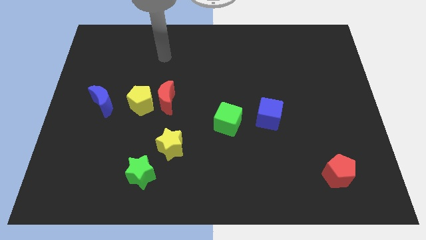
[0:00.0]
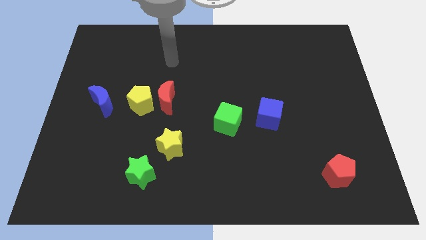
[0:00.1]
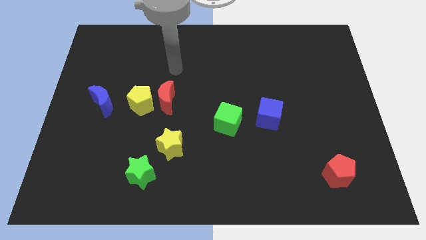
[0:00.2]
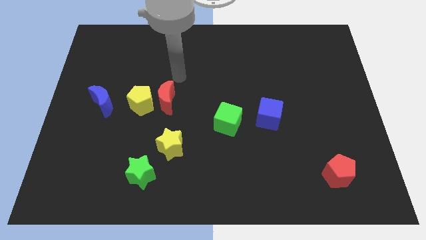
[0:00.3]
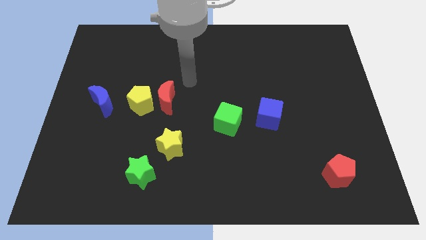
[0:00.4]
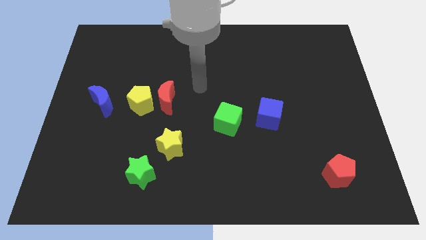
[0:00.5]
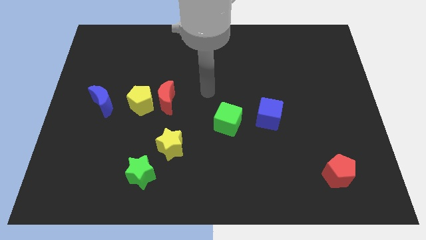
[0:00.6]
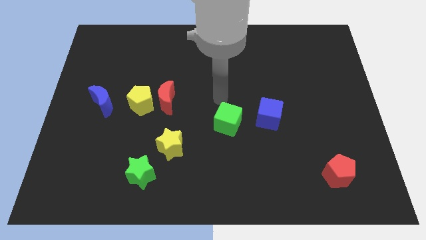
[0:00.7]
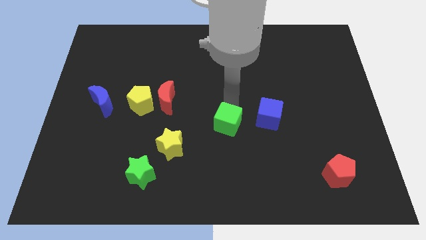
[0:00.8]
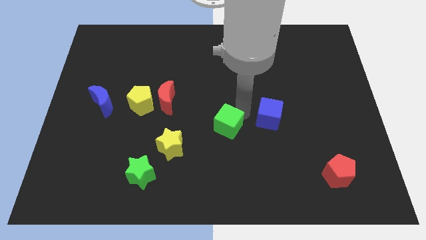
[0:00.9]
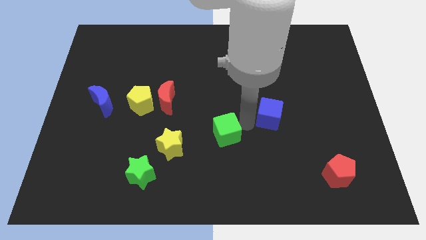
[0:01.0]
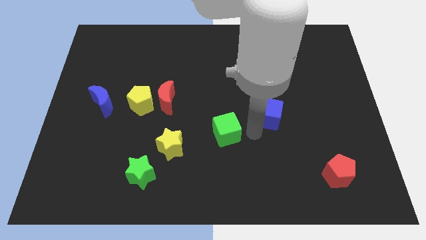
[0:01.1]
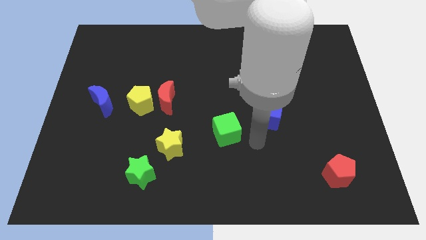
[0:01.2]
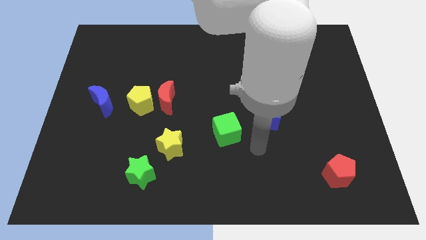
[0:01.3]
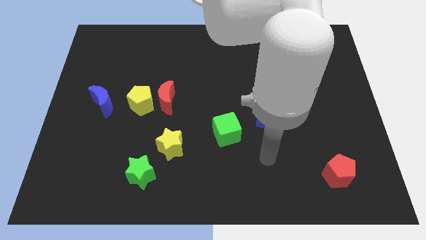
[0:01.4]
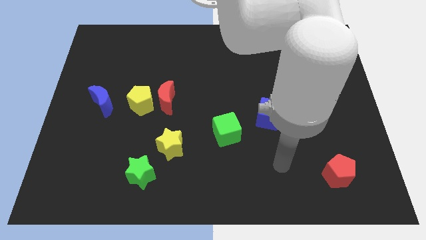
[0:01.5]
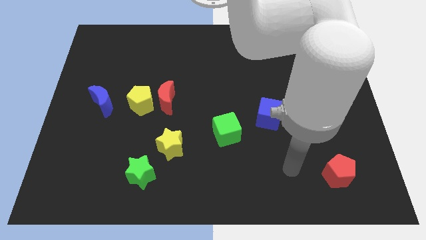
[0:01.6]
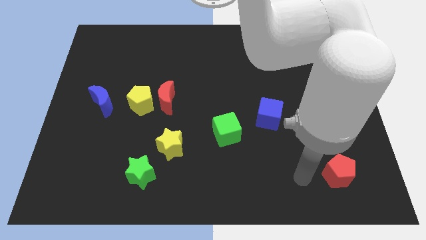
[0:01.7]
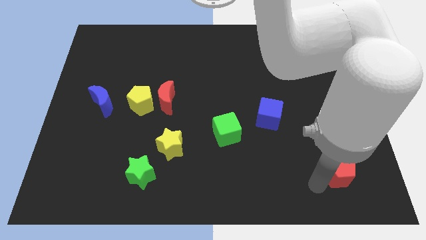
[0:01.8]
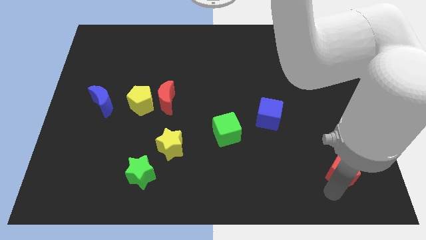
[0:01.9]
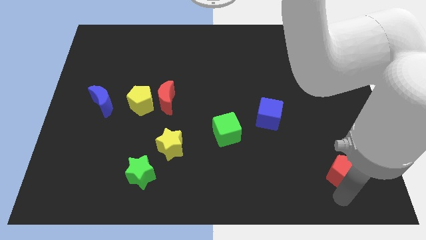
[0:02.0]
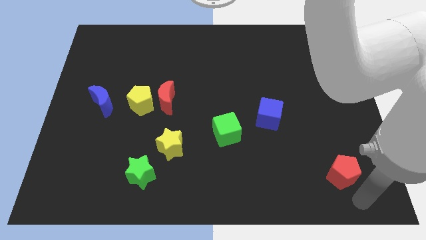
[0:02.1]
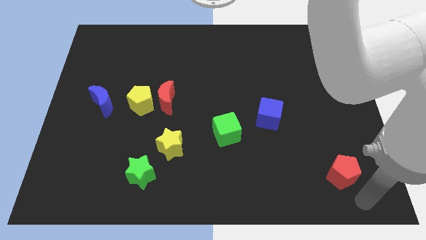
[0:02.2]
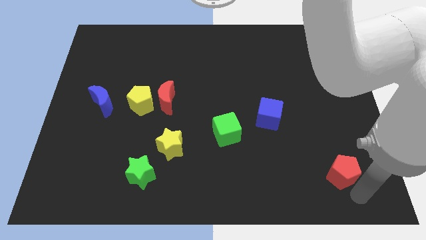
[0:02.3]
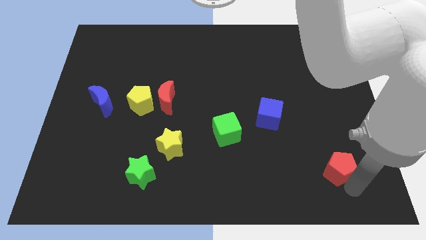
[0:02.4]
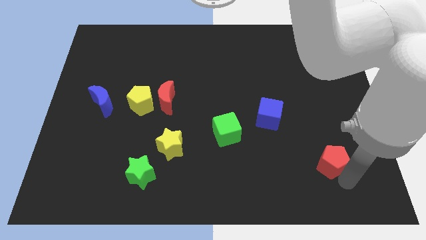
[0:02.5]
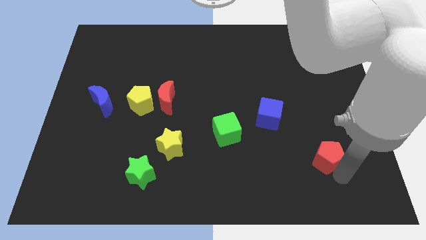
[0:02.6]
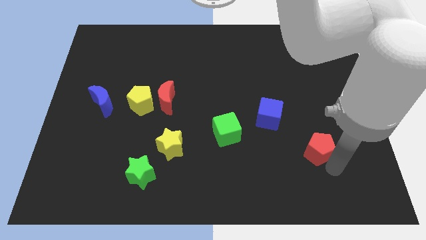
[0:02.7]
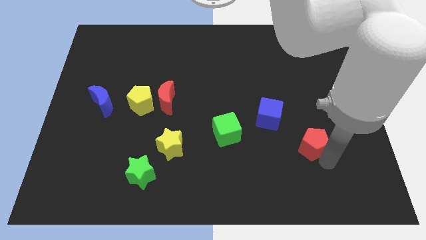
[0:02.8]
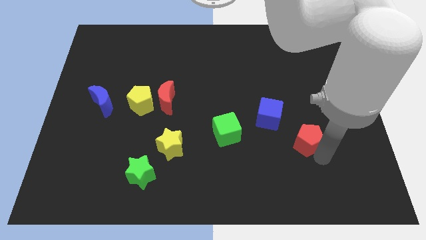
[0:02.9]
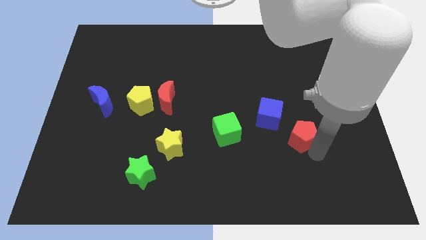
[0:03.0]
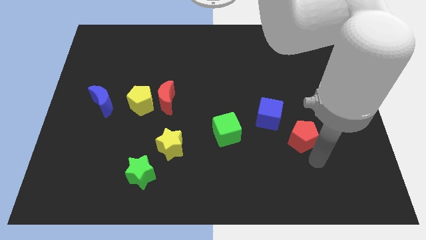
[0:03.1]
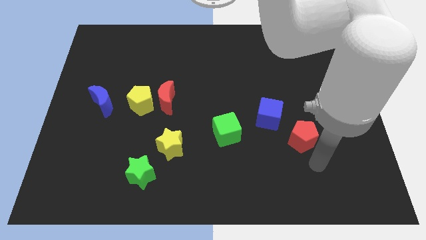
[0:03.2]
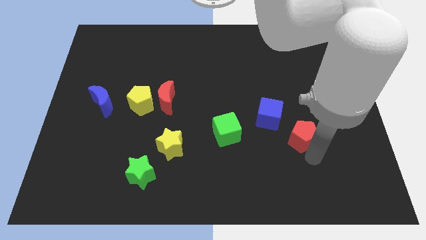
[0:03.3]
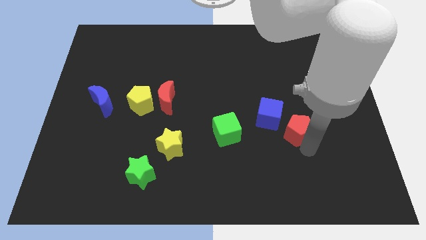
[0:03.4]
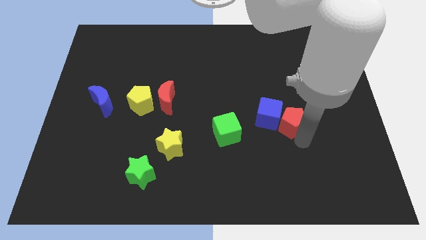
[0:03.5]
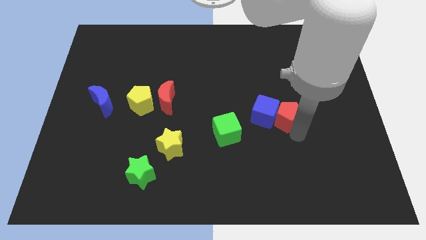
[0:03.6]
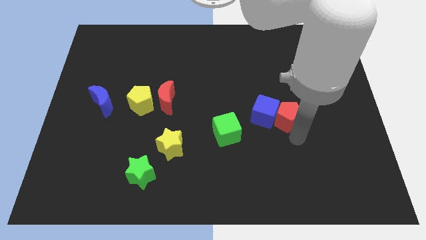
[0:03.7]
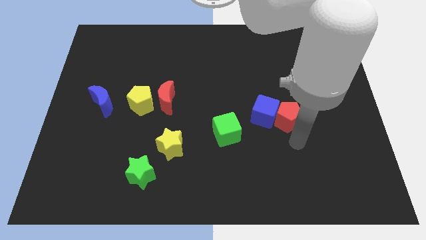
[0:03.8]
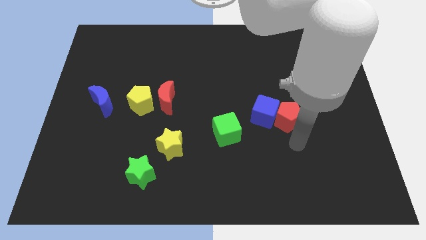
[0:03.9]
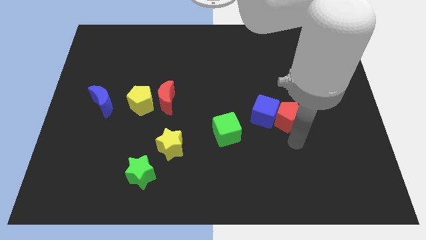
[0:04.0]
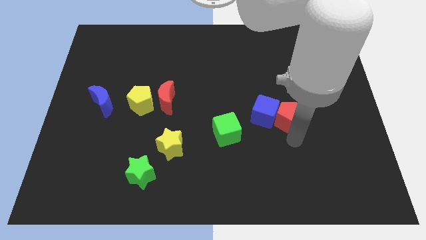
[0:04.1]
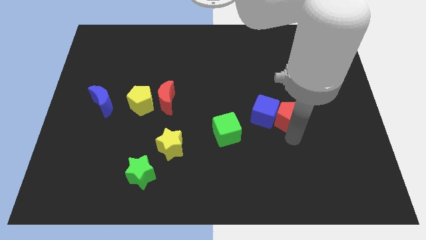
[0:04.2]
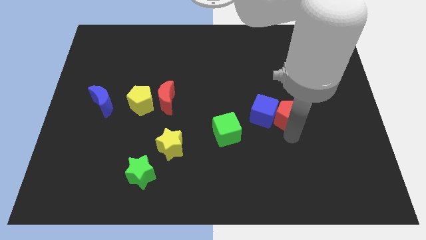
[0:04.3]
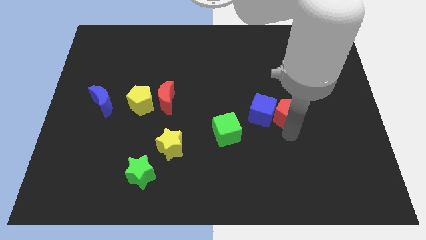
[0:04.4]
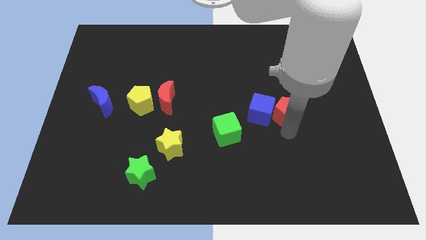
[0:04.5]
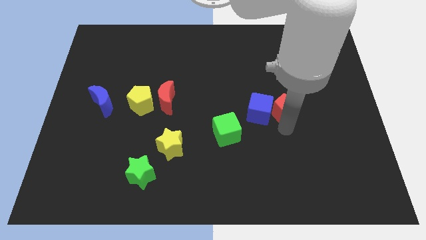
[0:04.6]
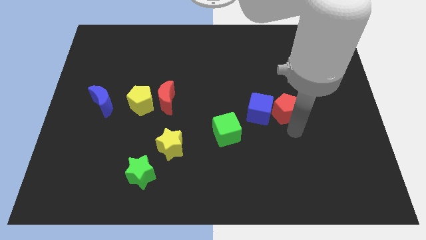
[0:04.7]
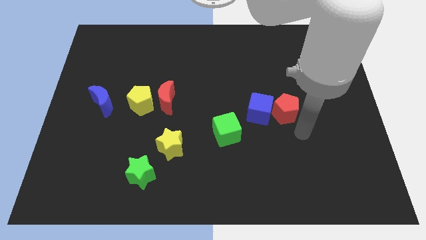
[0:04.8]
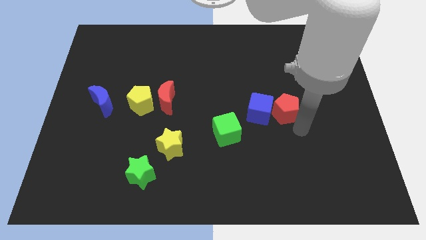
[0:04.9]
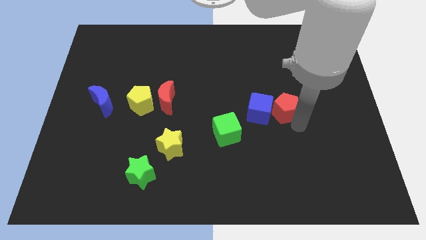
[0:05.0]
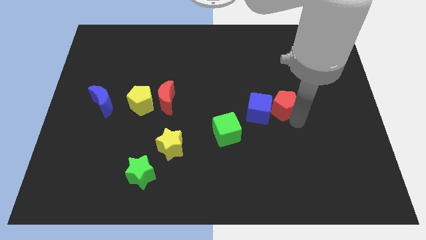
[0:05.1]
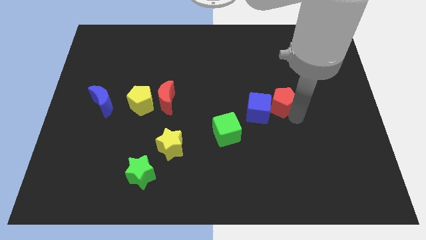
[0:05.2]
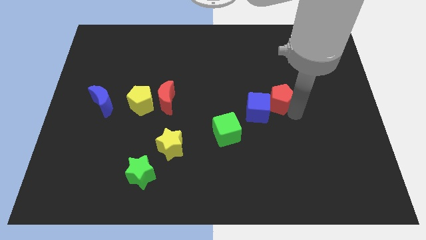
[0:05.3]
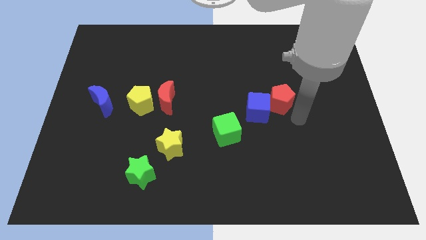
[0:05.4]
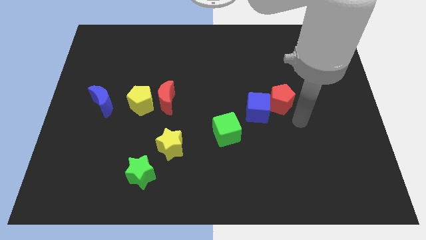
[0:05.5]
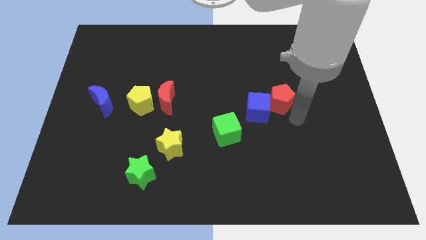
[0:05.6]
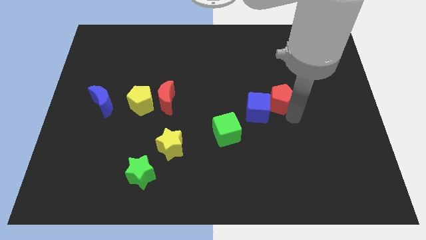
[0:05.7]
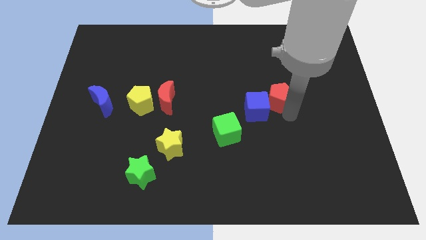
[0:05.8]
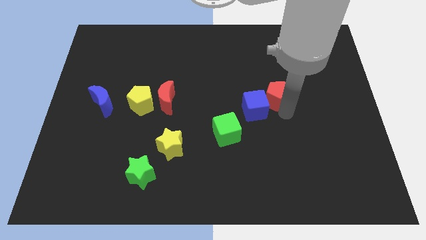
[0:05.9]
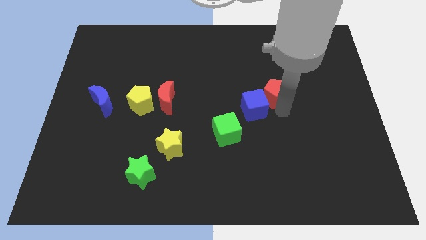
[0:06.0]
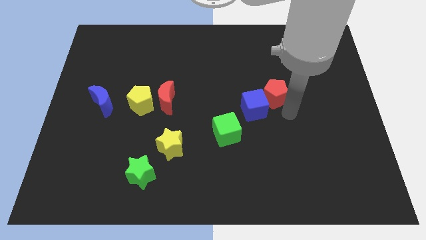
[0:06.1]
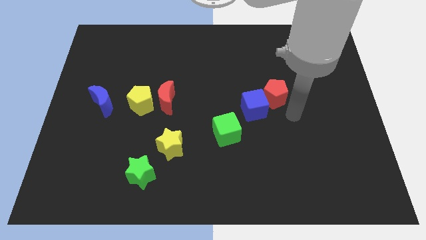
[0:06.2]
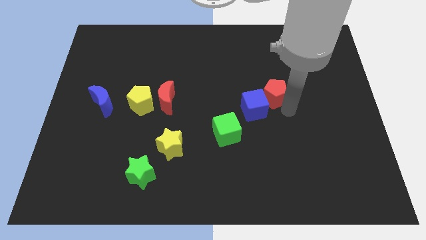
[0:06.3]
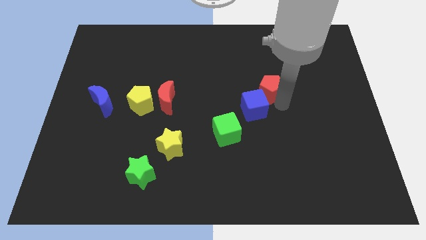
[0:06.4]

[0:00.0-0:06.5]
push the red pentagon above the blue cube

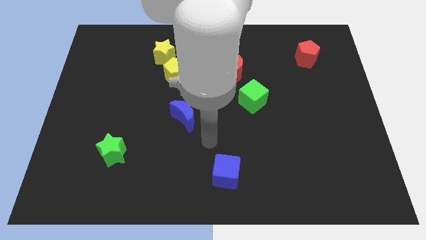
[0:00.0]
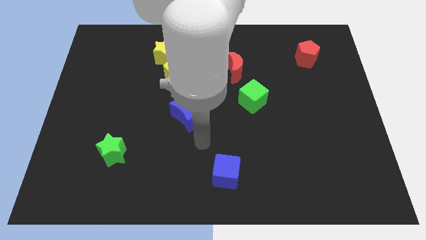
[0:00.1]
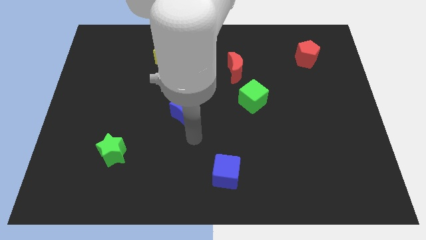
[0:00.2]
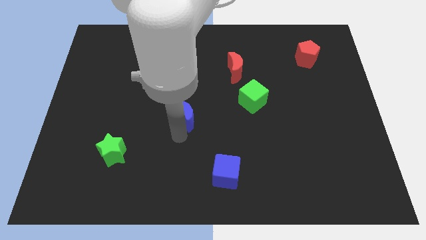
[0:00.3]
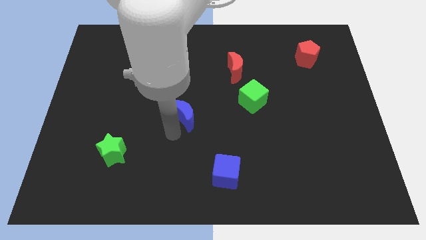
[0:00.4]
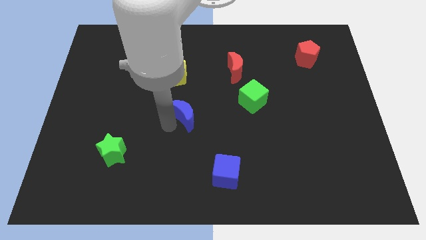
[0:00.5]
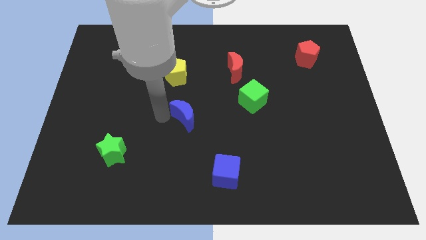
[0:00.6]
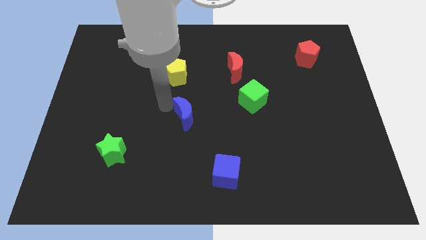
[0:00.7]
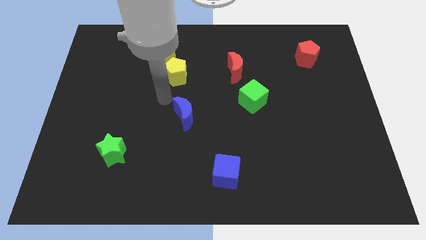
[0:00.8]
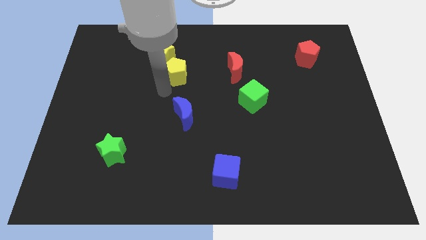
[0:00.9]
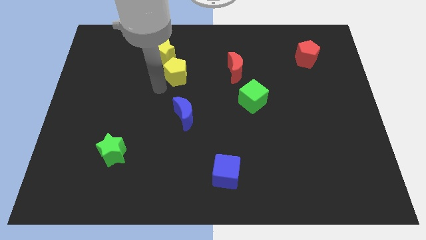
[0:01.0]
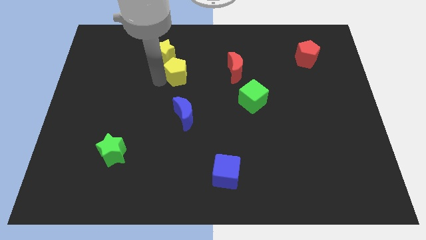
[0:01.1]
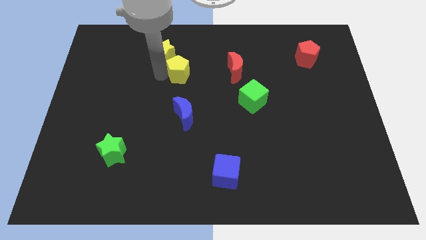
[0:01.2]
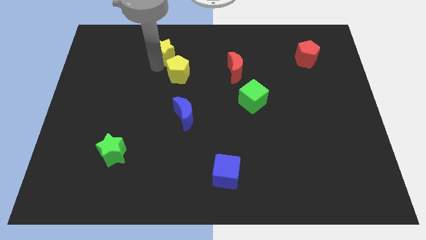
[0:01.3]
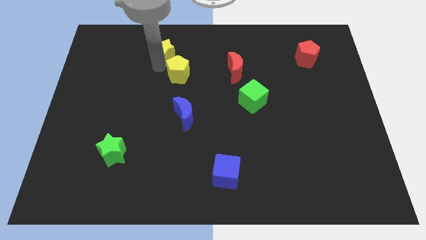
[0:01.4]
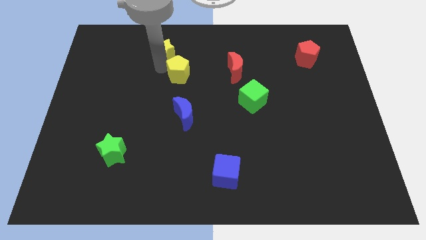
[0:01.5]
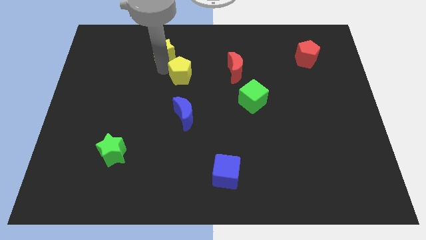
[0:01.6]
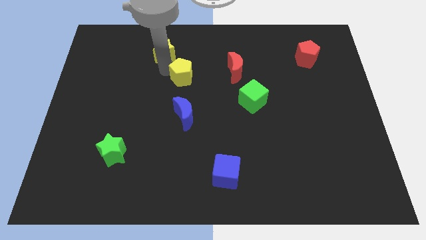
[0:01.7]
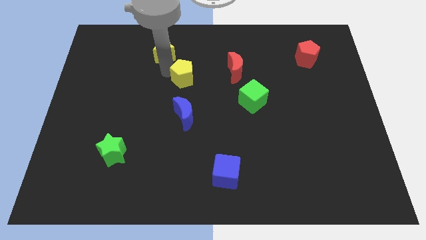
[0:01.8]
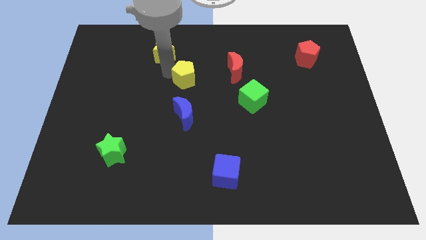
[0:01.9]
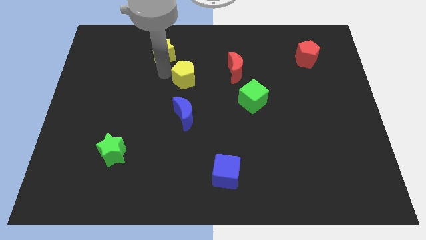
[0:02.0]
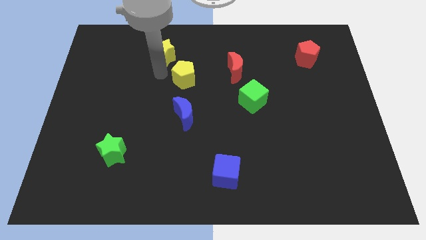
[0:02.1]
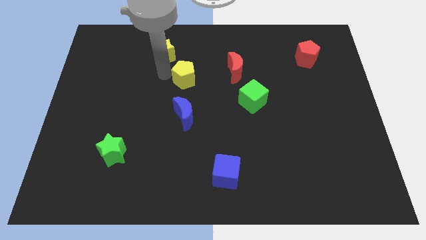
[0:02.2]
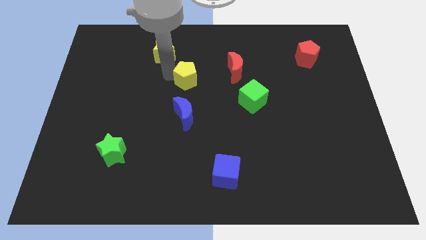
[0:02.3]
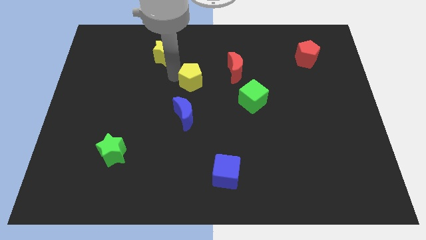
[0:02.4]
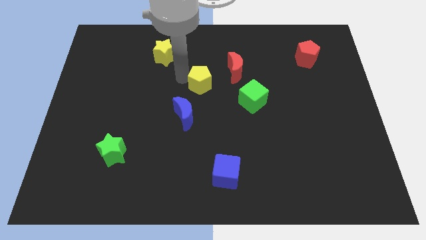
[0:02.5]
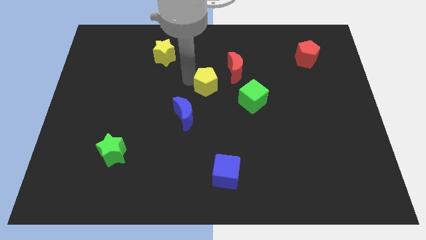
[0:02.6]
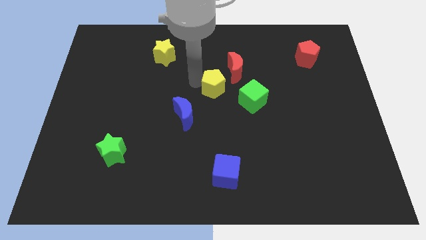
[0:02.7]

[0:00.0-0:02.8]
move the yellow pentagon diagonally up and to the left of the green cube
